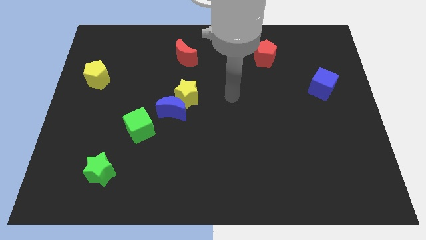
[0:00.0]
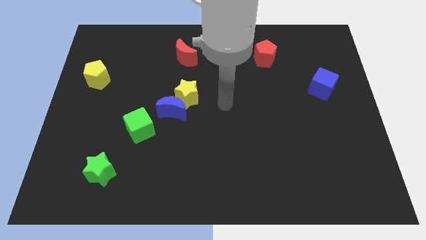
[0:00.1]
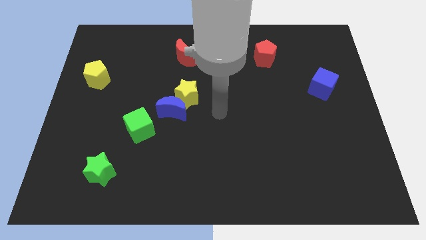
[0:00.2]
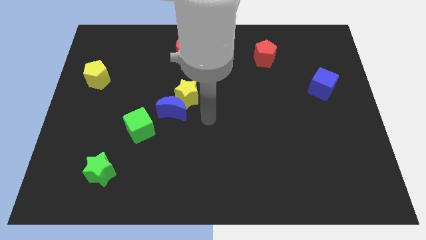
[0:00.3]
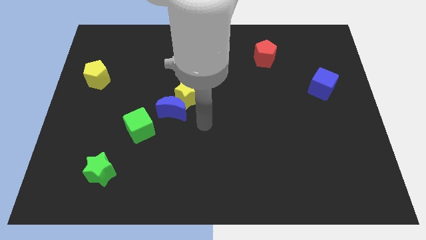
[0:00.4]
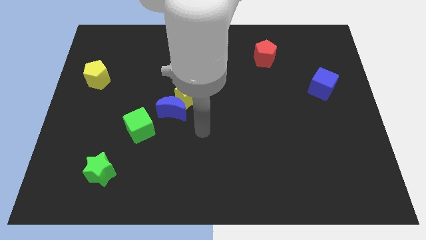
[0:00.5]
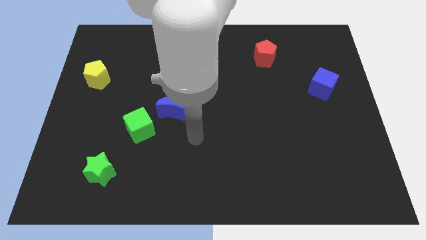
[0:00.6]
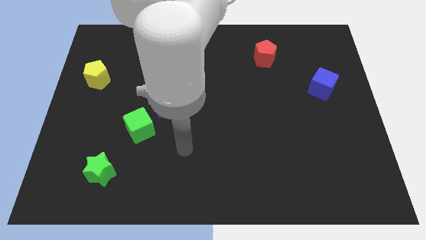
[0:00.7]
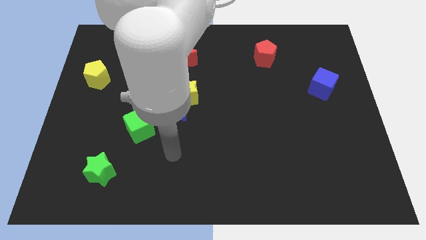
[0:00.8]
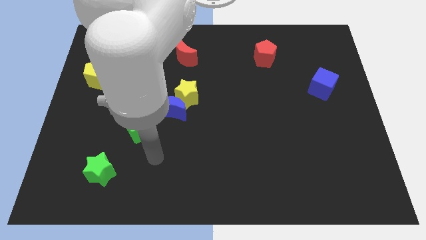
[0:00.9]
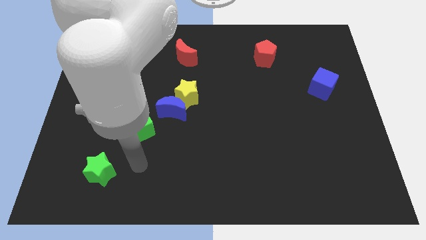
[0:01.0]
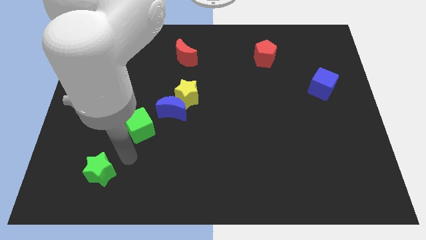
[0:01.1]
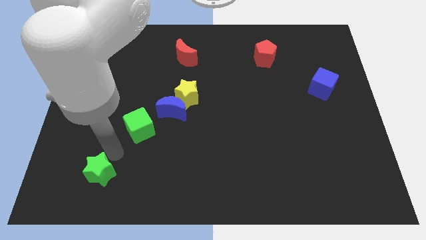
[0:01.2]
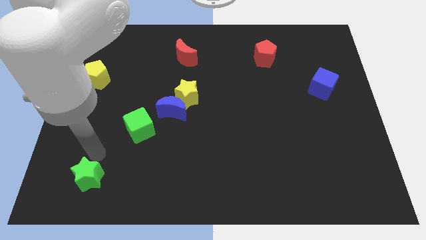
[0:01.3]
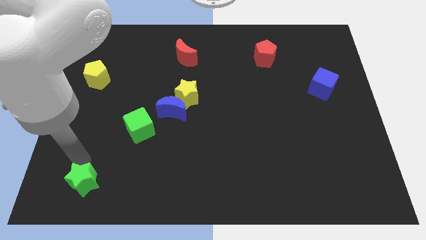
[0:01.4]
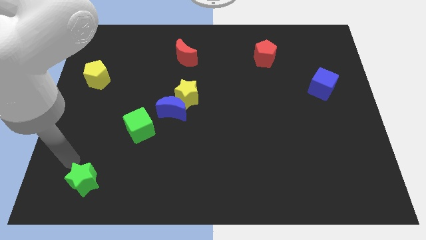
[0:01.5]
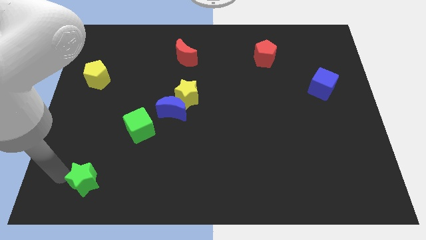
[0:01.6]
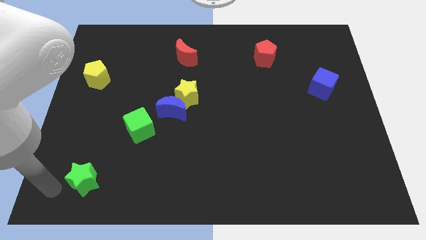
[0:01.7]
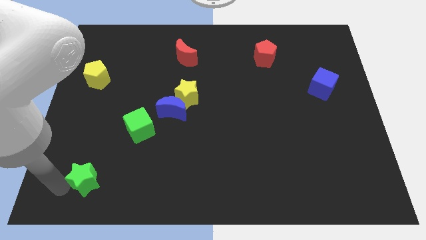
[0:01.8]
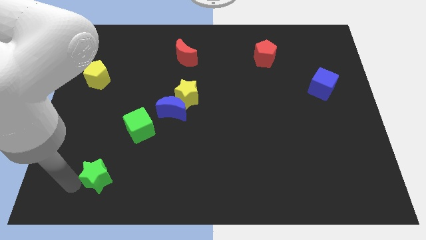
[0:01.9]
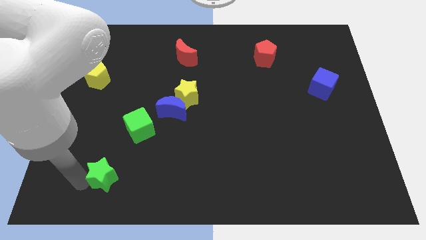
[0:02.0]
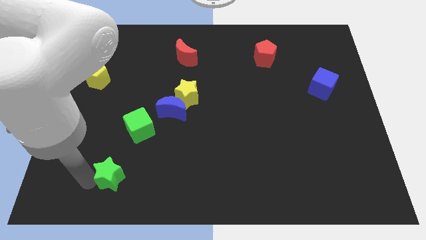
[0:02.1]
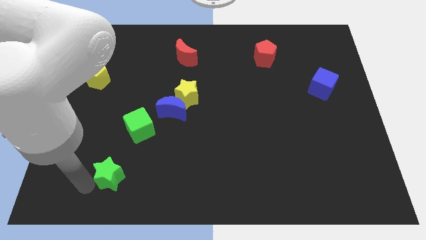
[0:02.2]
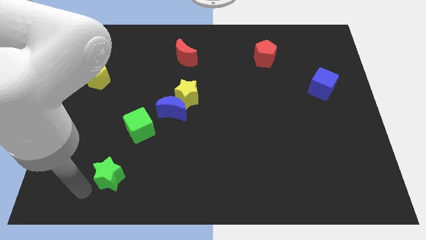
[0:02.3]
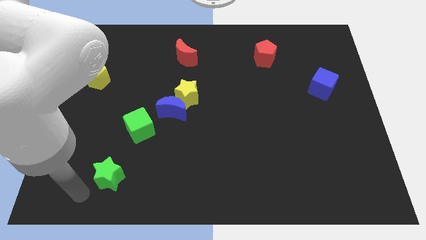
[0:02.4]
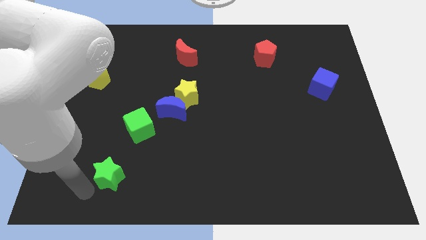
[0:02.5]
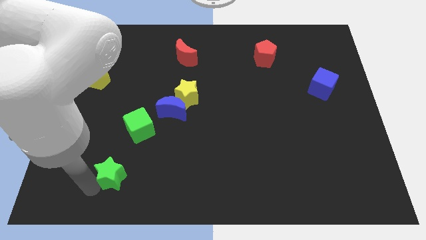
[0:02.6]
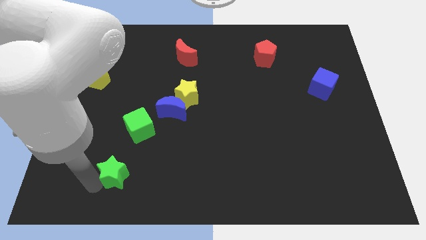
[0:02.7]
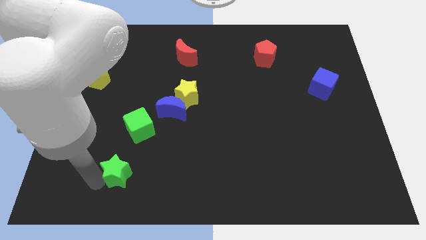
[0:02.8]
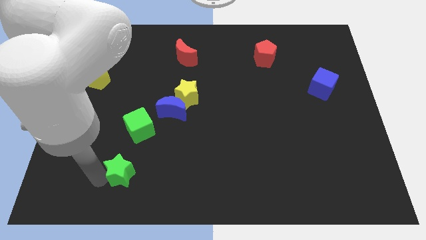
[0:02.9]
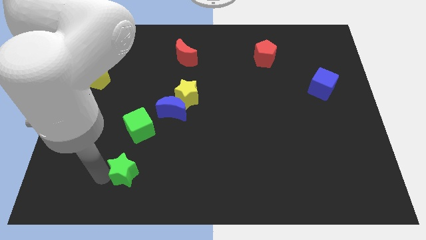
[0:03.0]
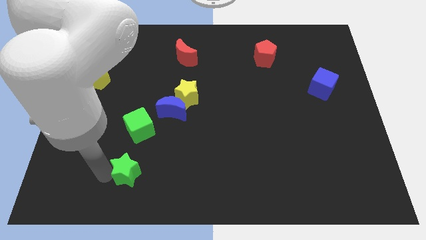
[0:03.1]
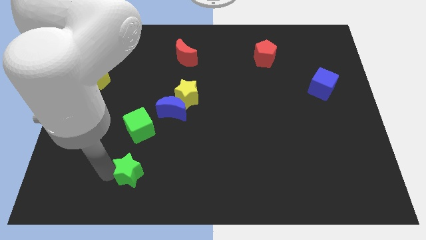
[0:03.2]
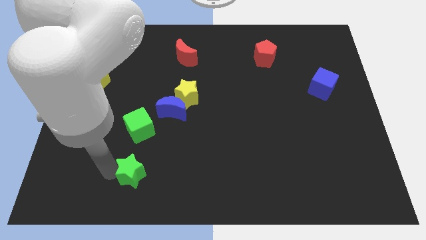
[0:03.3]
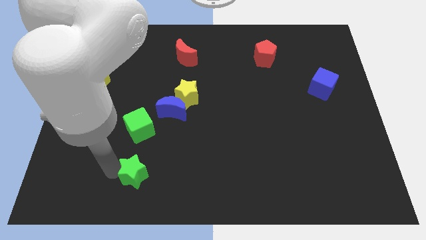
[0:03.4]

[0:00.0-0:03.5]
slightly move the green star to the right

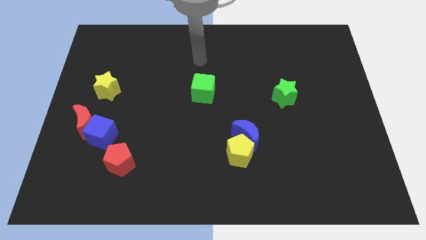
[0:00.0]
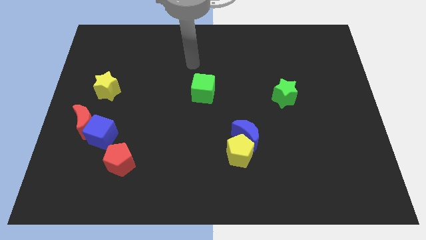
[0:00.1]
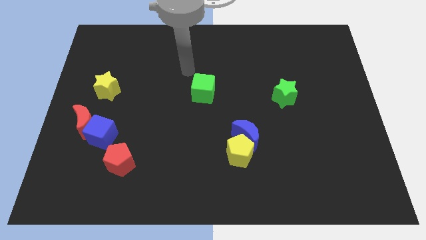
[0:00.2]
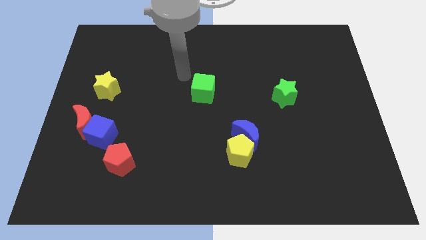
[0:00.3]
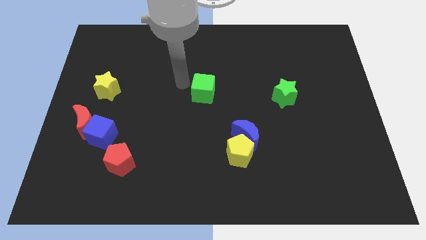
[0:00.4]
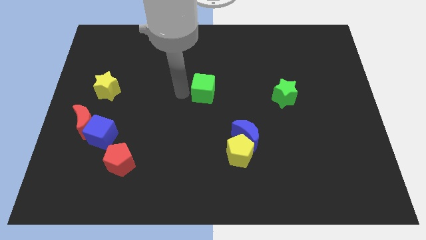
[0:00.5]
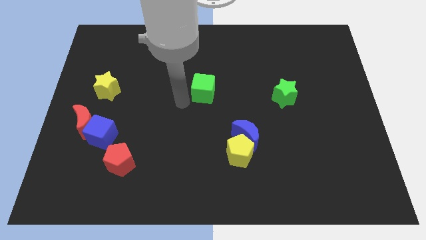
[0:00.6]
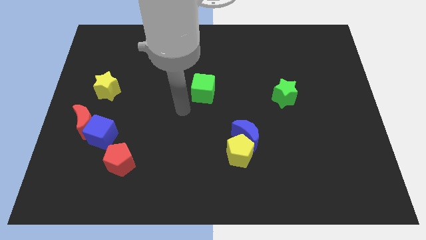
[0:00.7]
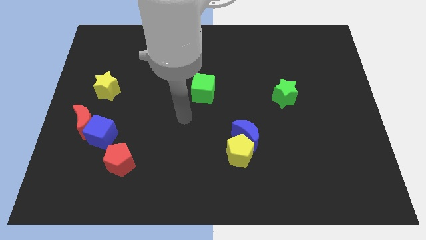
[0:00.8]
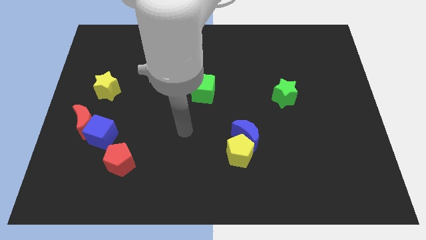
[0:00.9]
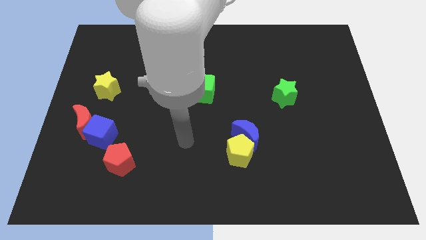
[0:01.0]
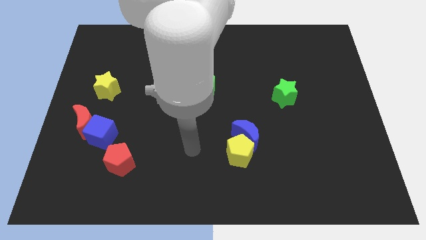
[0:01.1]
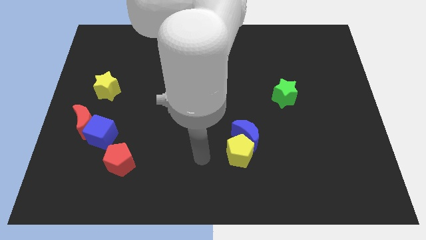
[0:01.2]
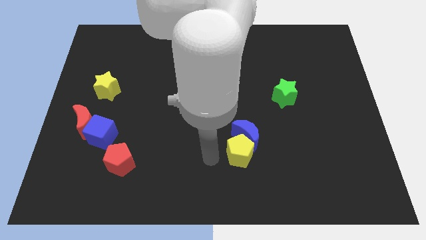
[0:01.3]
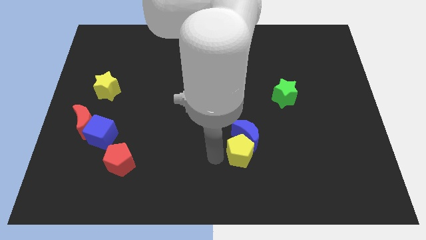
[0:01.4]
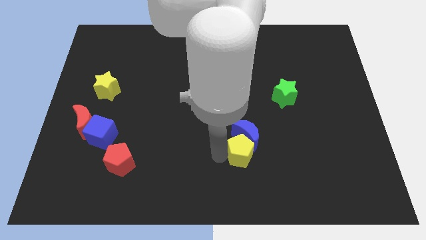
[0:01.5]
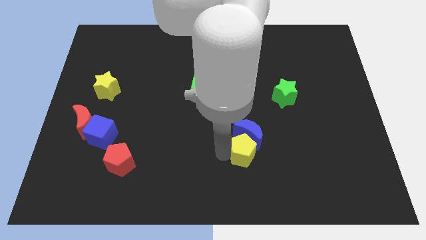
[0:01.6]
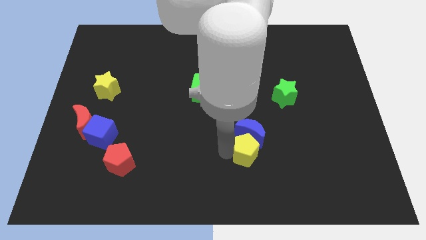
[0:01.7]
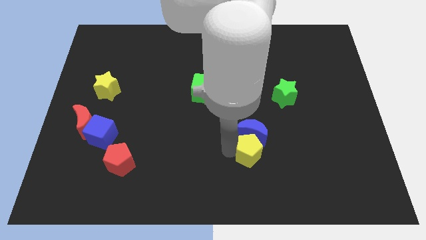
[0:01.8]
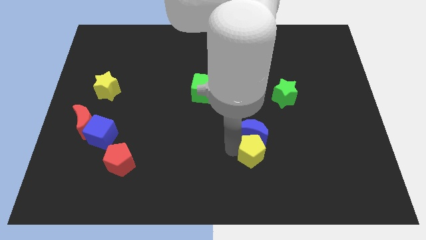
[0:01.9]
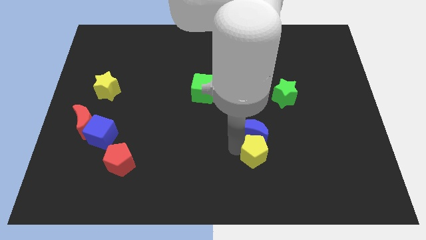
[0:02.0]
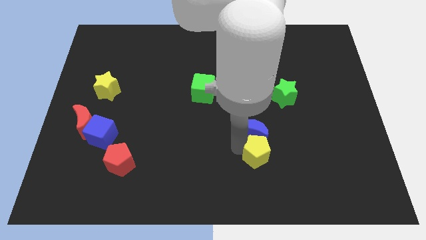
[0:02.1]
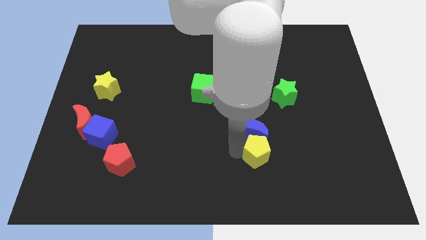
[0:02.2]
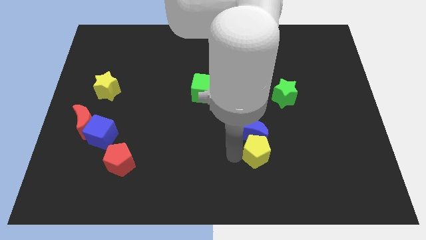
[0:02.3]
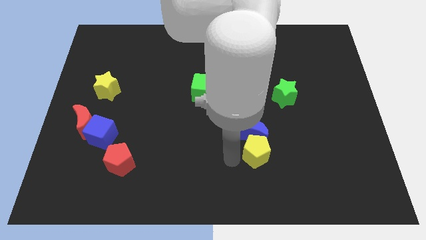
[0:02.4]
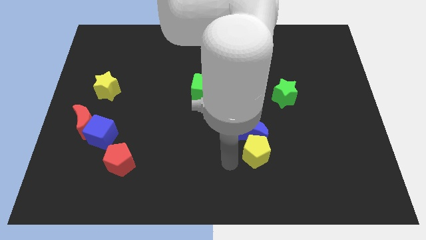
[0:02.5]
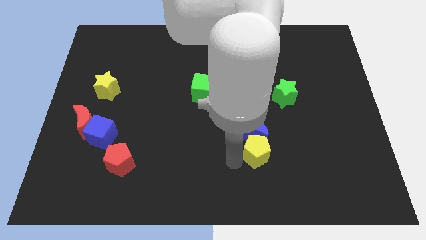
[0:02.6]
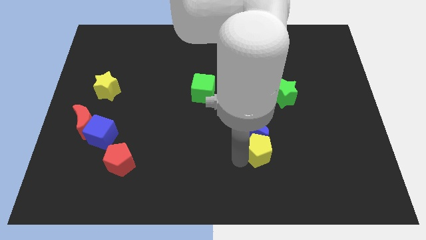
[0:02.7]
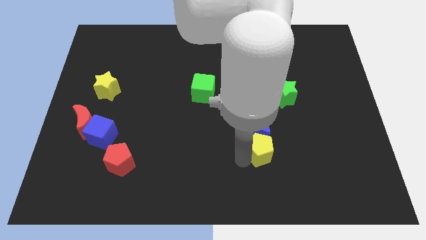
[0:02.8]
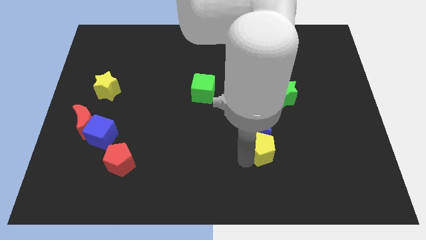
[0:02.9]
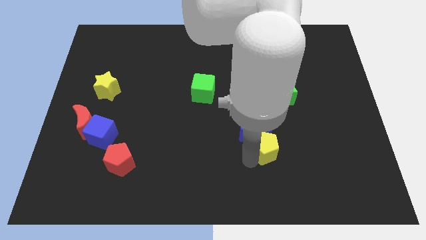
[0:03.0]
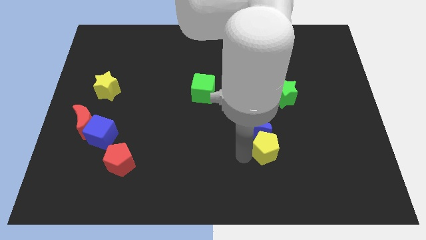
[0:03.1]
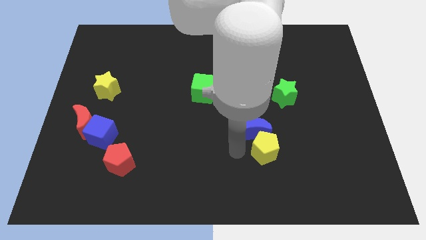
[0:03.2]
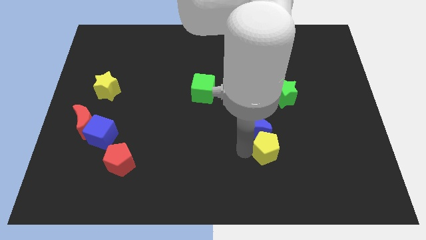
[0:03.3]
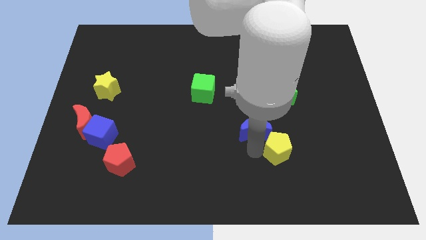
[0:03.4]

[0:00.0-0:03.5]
move the yellow pentagon to the right a little

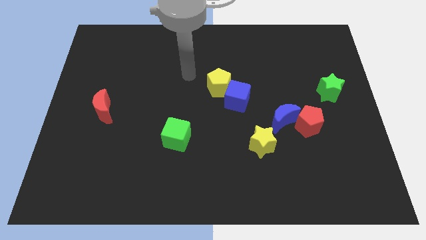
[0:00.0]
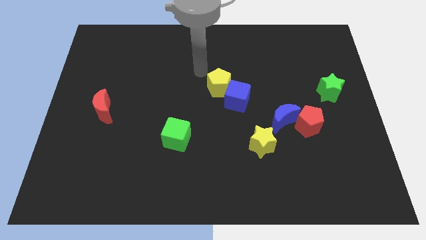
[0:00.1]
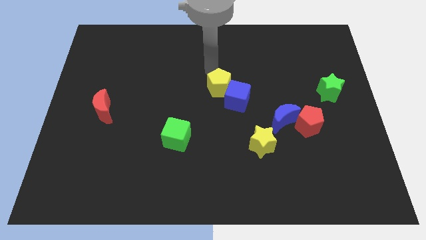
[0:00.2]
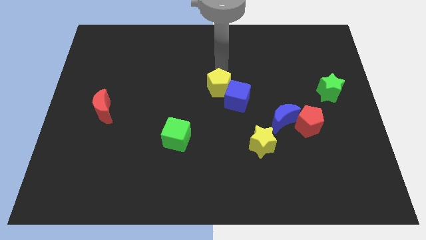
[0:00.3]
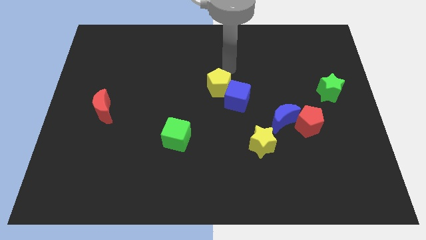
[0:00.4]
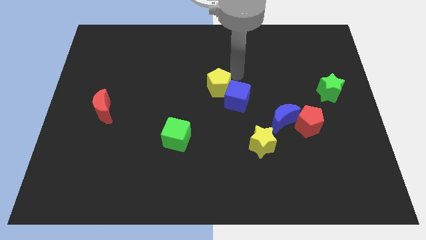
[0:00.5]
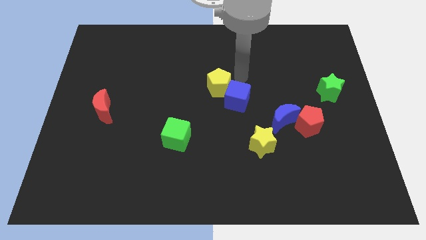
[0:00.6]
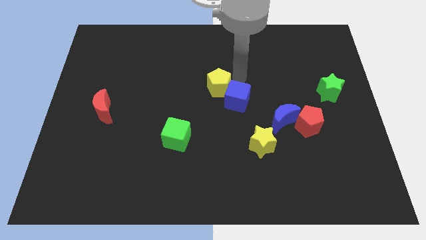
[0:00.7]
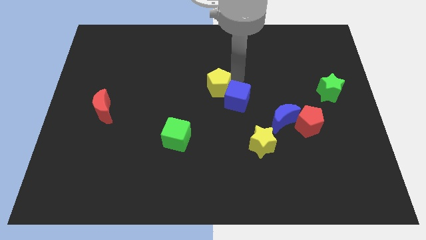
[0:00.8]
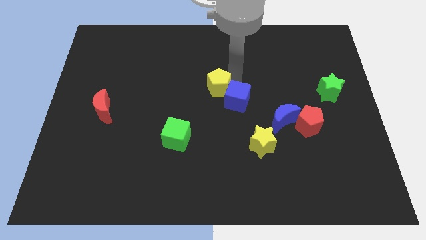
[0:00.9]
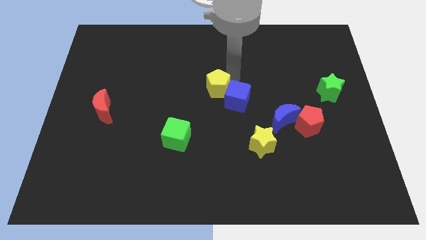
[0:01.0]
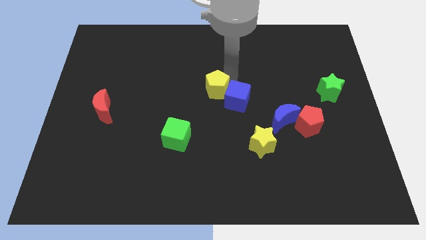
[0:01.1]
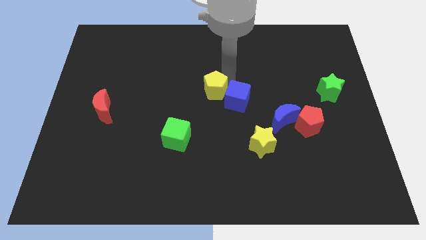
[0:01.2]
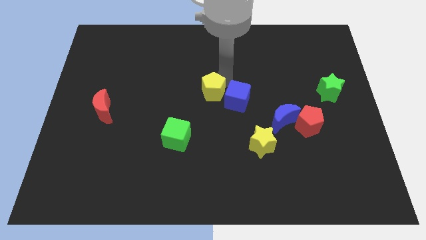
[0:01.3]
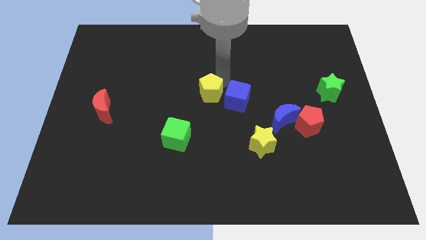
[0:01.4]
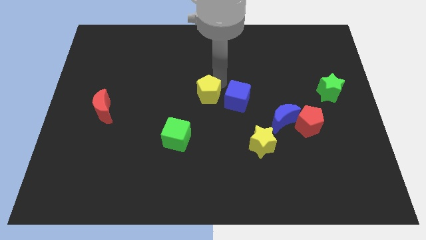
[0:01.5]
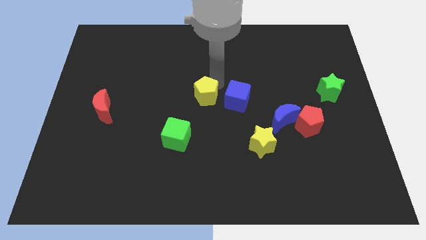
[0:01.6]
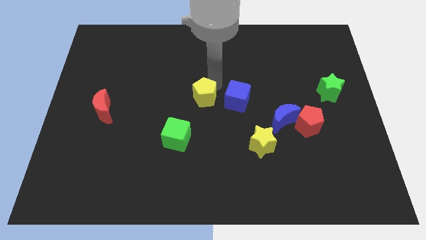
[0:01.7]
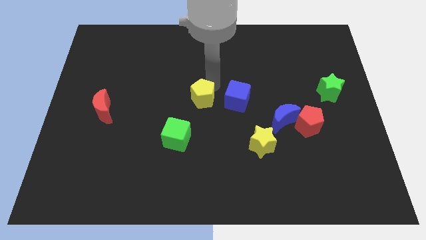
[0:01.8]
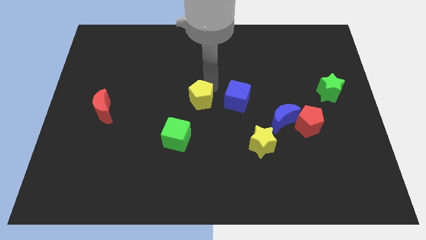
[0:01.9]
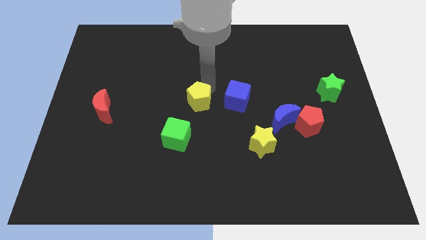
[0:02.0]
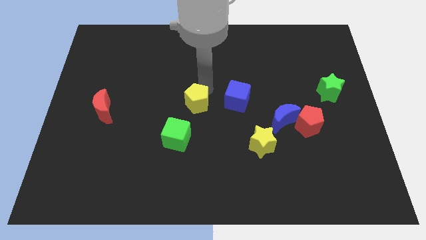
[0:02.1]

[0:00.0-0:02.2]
slide the yellow pentagon a bit downwards and to the left
